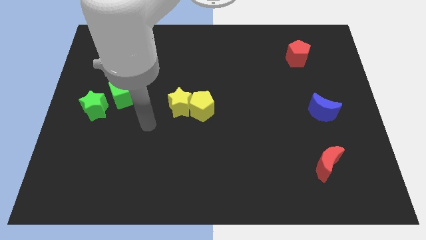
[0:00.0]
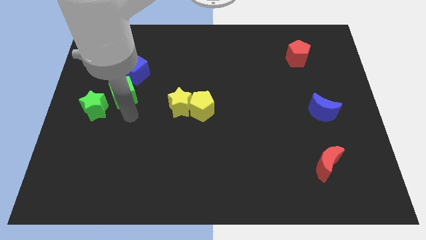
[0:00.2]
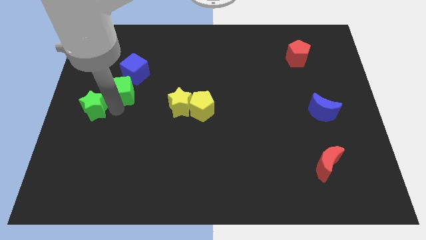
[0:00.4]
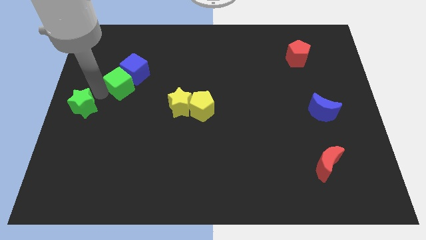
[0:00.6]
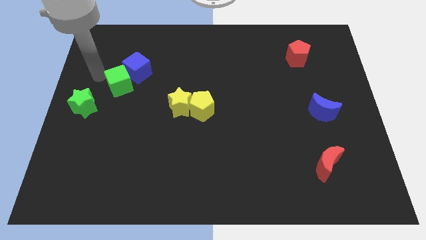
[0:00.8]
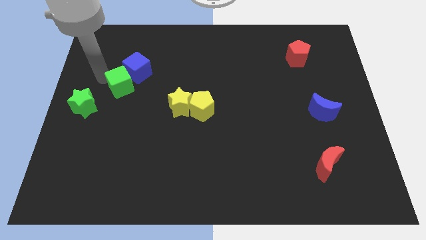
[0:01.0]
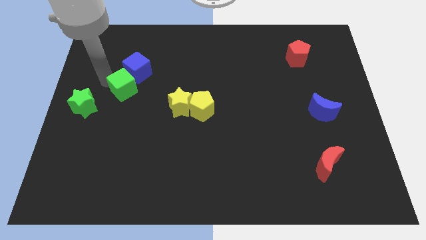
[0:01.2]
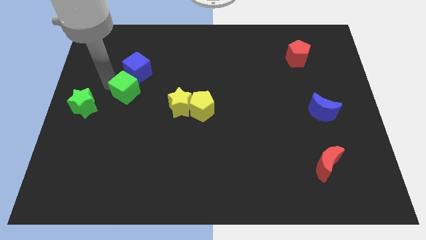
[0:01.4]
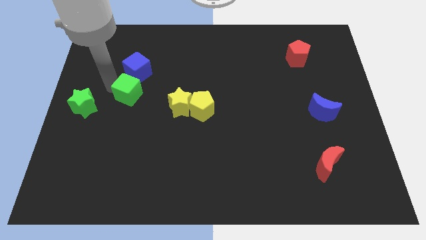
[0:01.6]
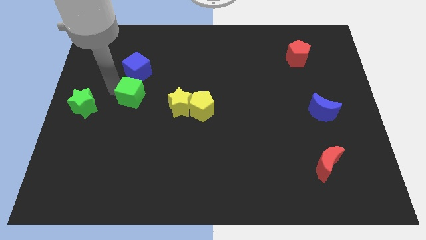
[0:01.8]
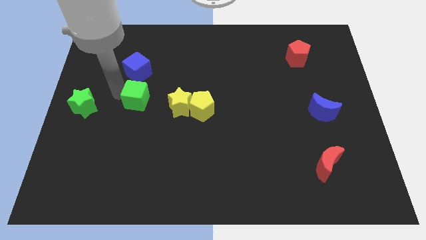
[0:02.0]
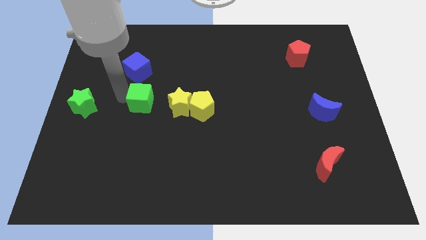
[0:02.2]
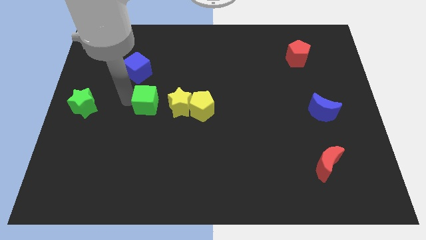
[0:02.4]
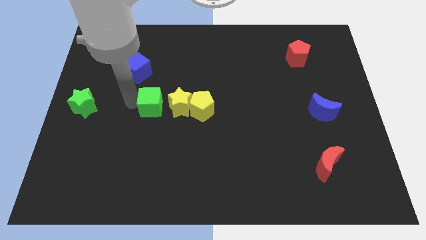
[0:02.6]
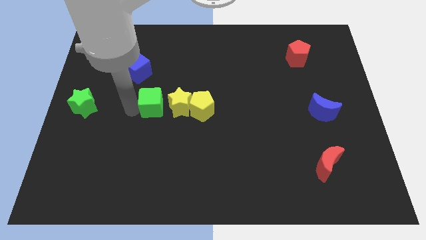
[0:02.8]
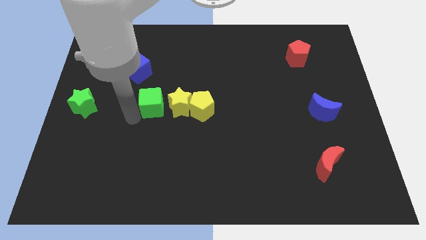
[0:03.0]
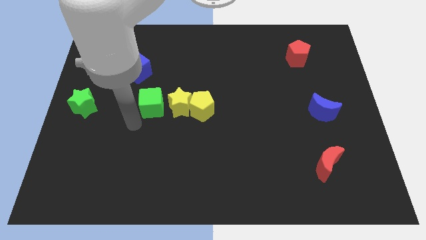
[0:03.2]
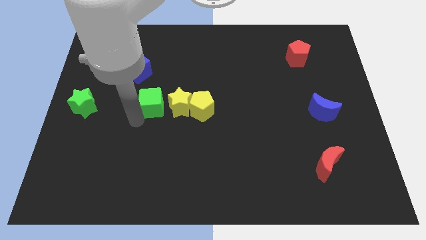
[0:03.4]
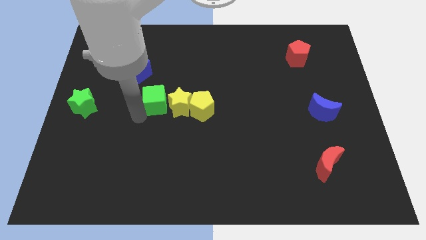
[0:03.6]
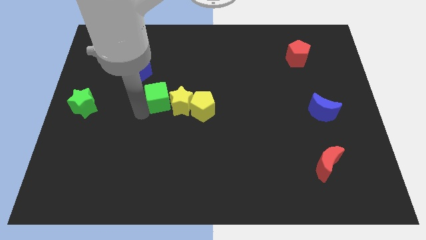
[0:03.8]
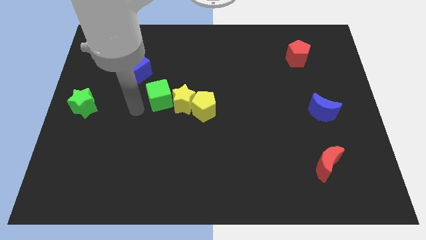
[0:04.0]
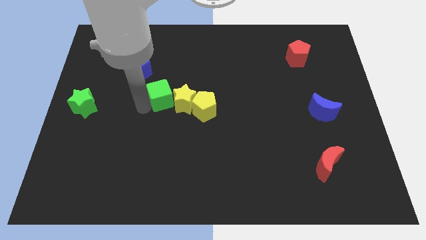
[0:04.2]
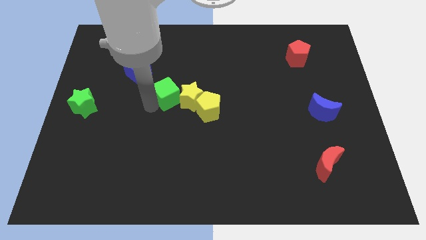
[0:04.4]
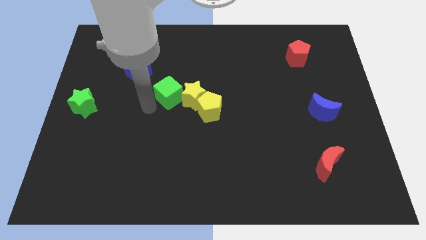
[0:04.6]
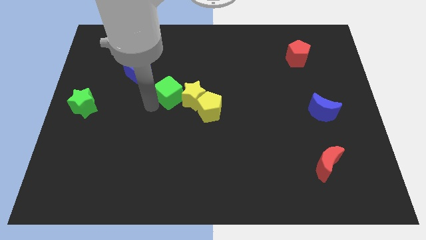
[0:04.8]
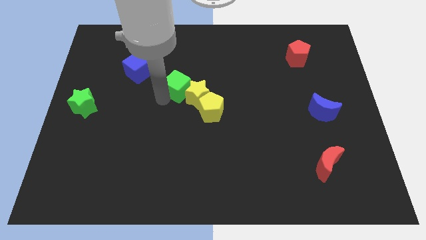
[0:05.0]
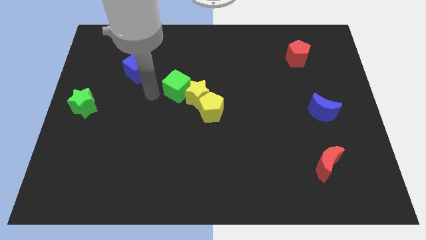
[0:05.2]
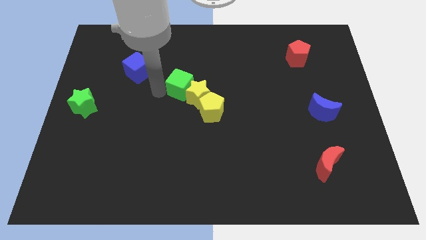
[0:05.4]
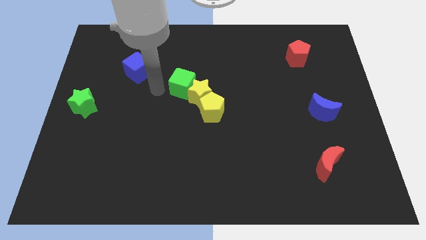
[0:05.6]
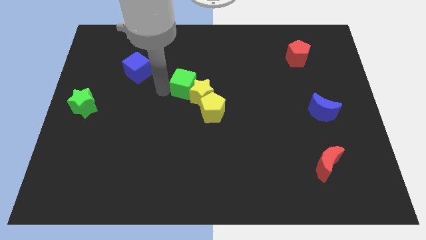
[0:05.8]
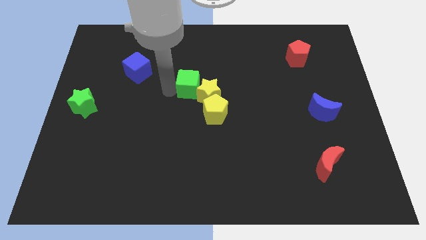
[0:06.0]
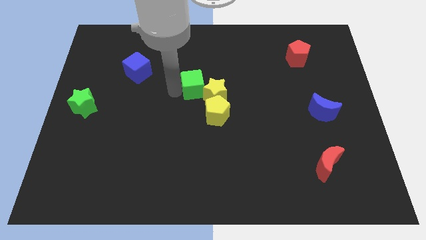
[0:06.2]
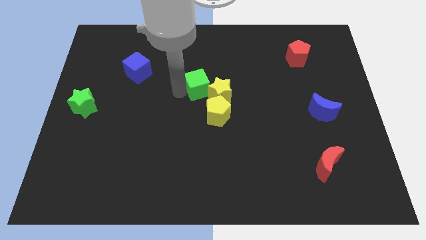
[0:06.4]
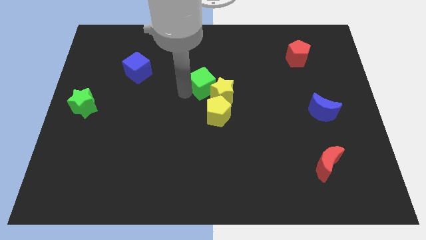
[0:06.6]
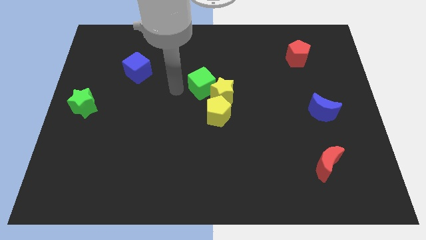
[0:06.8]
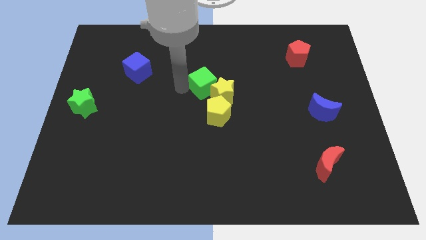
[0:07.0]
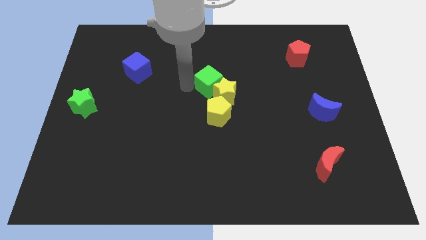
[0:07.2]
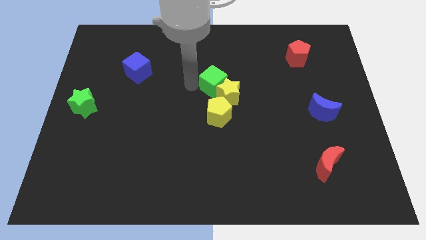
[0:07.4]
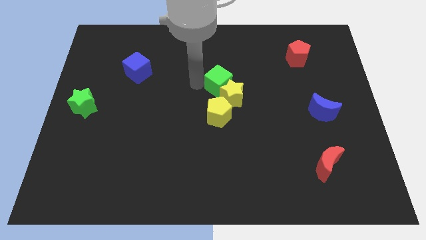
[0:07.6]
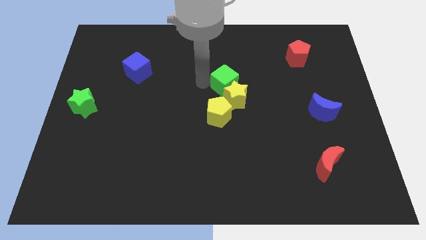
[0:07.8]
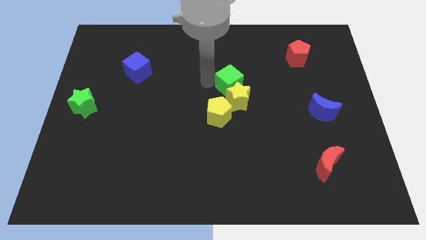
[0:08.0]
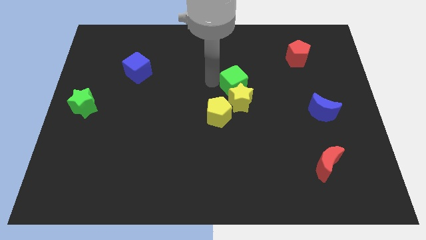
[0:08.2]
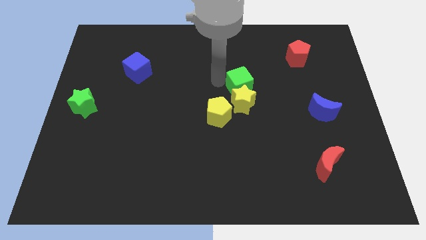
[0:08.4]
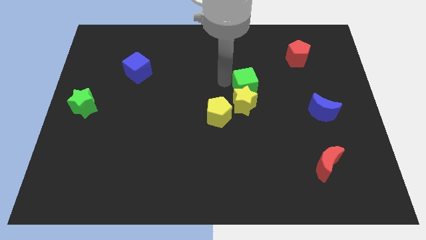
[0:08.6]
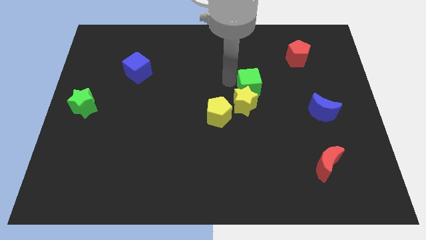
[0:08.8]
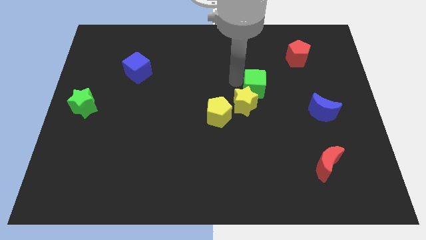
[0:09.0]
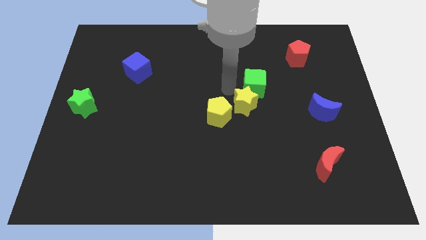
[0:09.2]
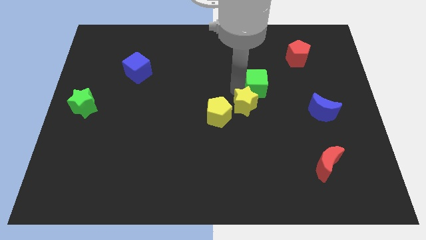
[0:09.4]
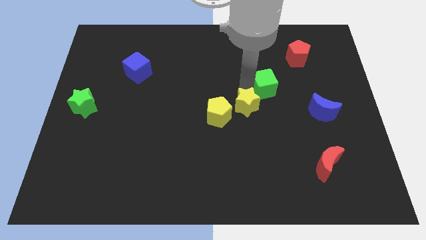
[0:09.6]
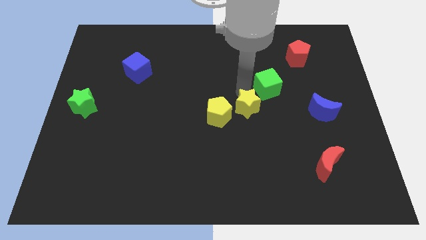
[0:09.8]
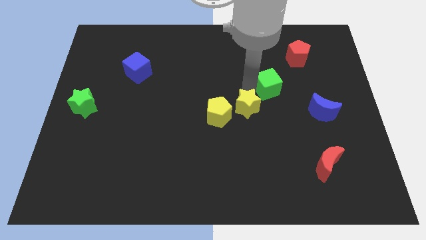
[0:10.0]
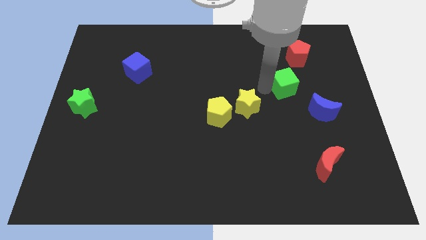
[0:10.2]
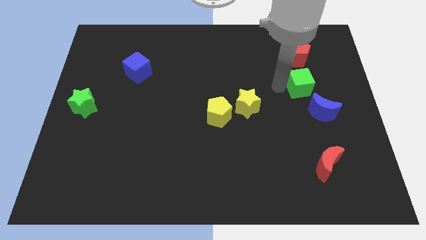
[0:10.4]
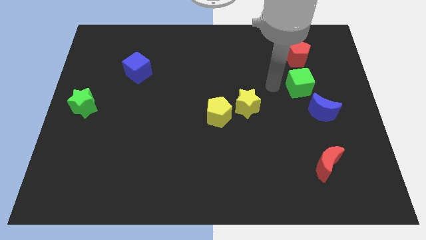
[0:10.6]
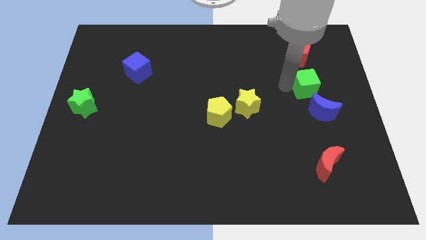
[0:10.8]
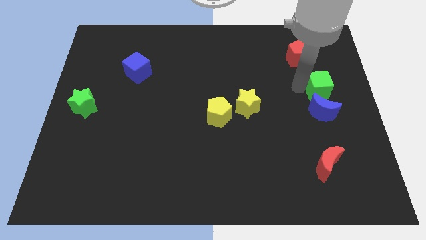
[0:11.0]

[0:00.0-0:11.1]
put the green cube to the right side
